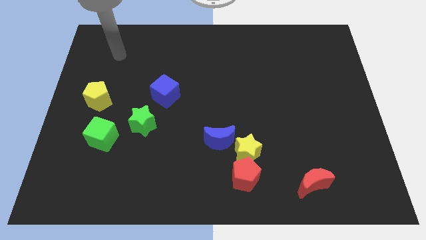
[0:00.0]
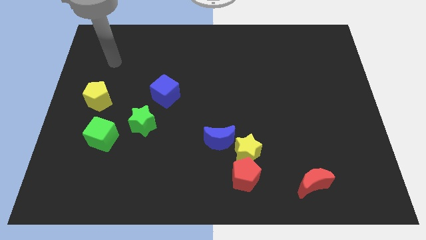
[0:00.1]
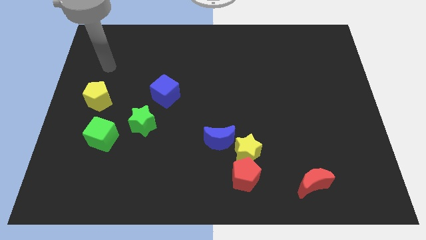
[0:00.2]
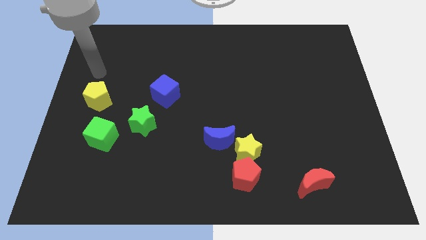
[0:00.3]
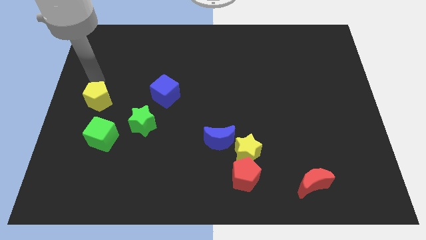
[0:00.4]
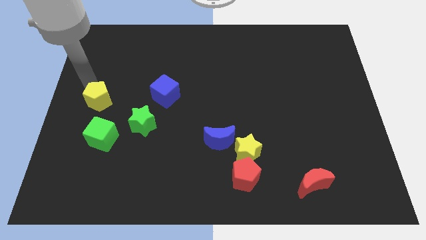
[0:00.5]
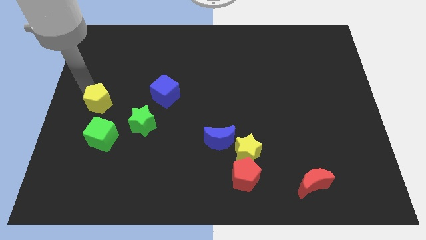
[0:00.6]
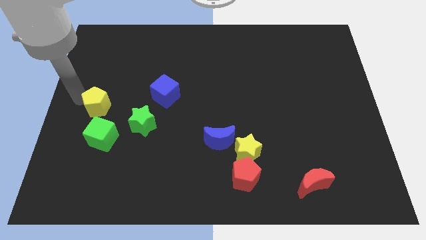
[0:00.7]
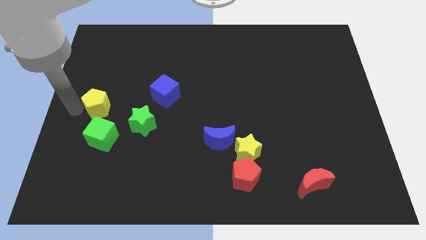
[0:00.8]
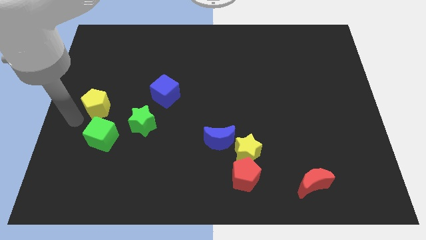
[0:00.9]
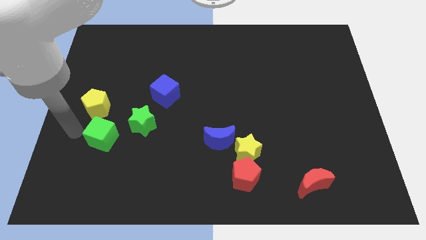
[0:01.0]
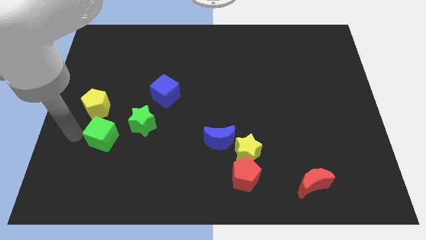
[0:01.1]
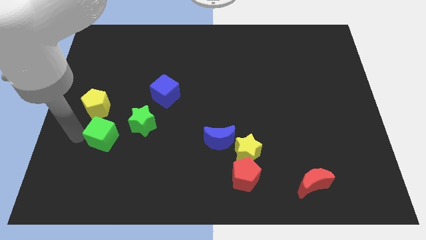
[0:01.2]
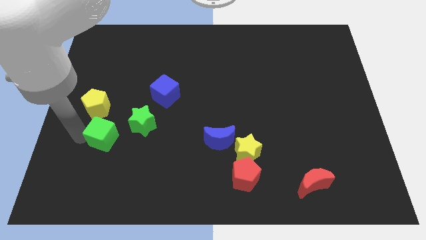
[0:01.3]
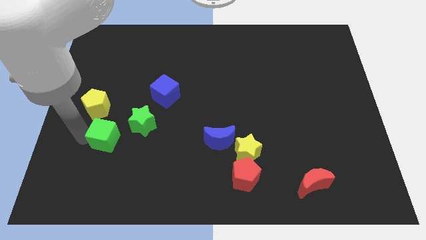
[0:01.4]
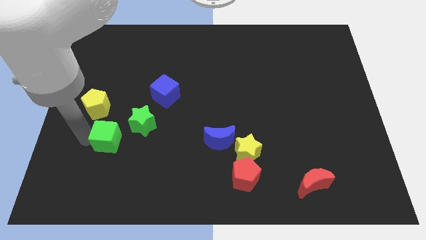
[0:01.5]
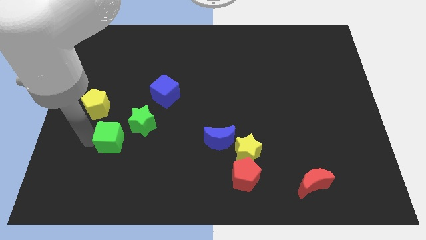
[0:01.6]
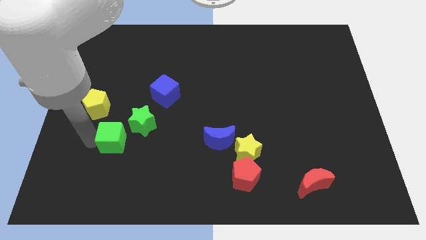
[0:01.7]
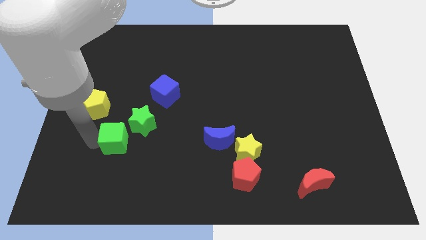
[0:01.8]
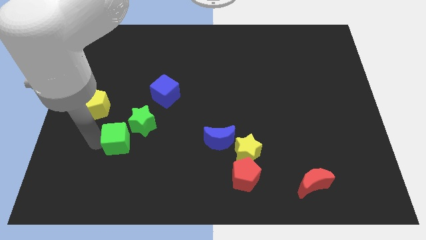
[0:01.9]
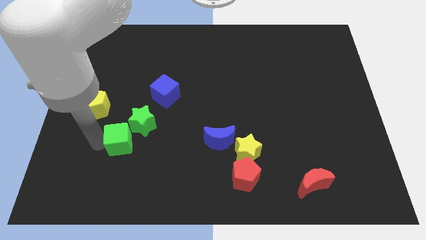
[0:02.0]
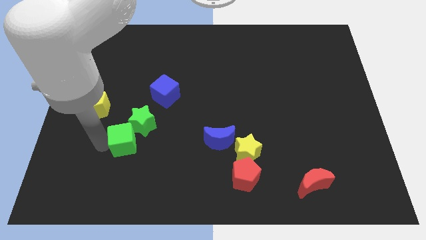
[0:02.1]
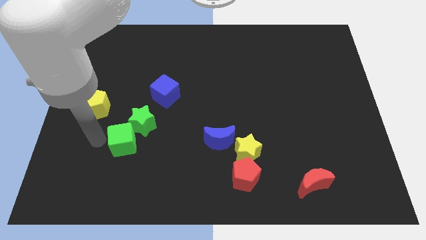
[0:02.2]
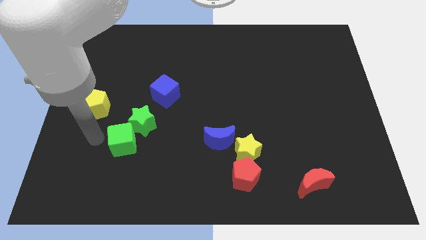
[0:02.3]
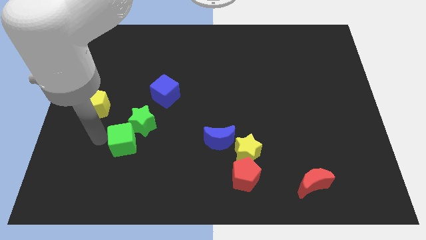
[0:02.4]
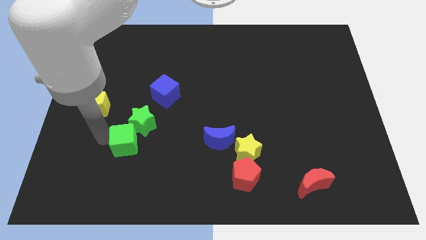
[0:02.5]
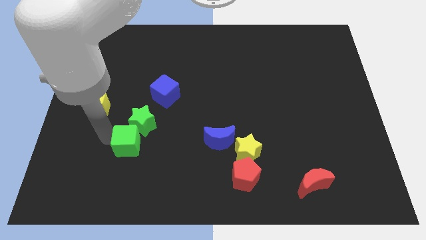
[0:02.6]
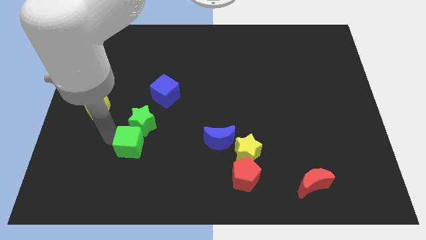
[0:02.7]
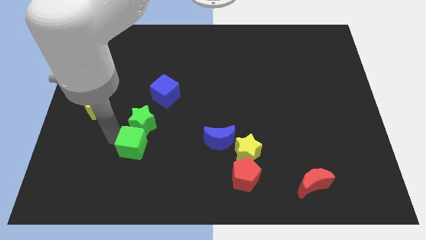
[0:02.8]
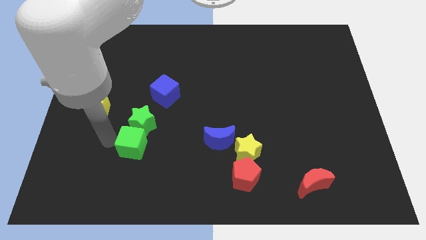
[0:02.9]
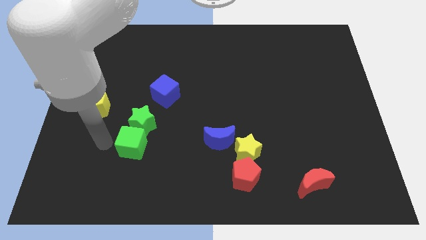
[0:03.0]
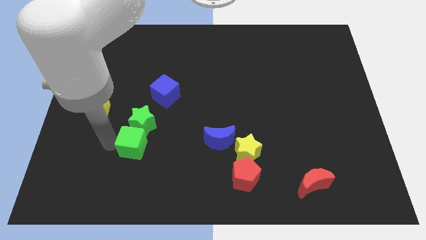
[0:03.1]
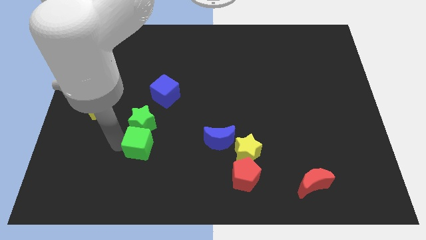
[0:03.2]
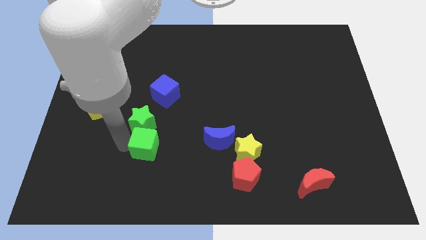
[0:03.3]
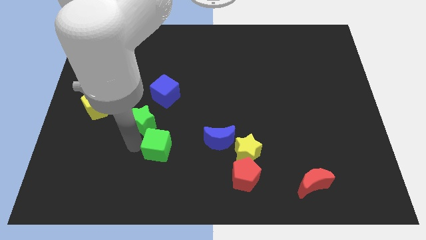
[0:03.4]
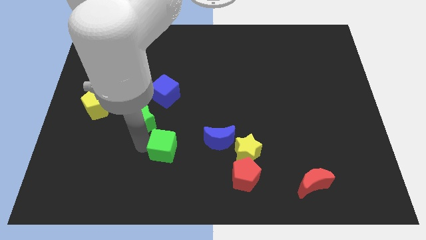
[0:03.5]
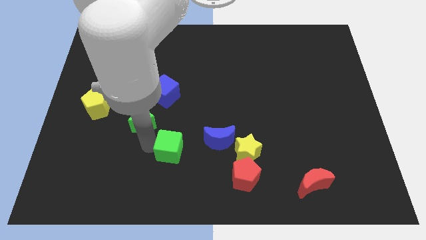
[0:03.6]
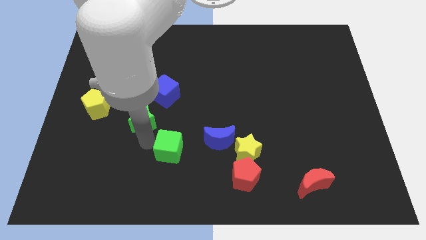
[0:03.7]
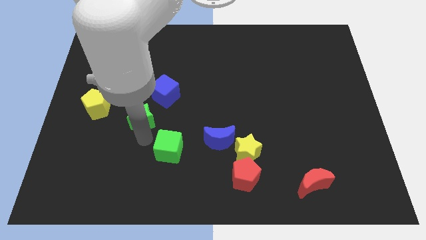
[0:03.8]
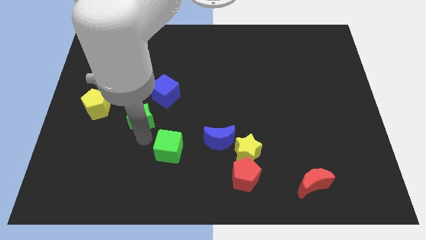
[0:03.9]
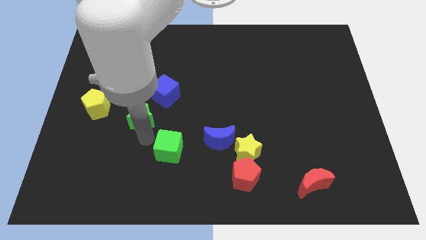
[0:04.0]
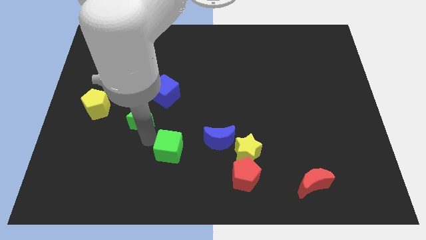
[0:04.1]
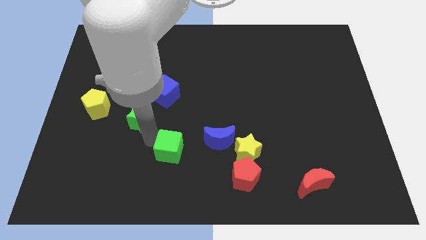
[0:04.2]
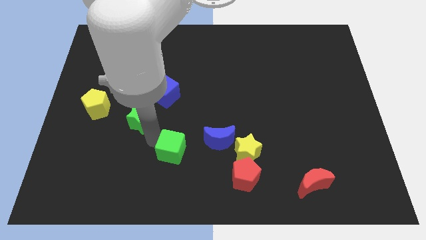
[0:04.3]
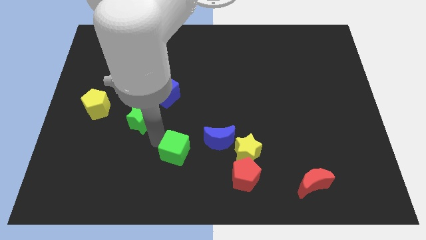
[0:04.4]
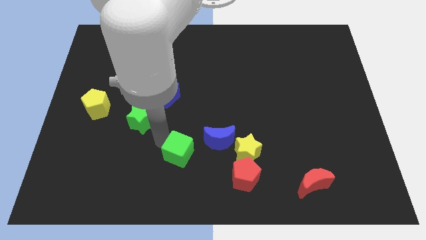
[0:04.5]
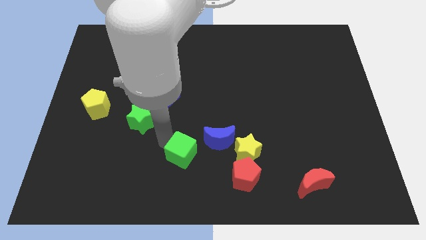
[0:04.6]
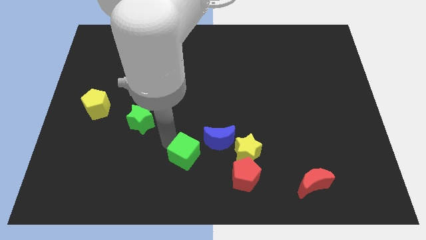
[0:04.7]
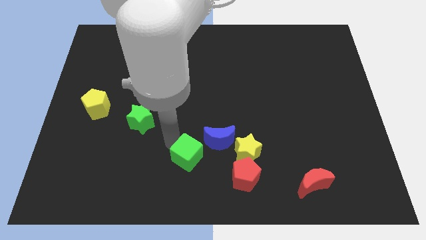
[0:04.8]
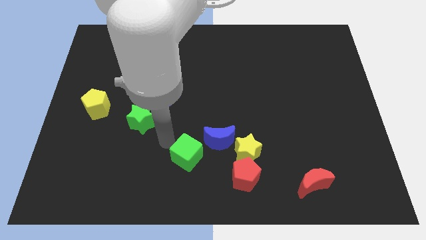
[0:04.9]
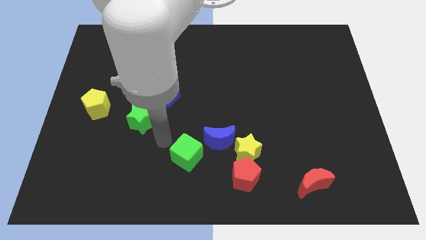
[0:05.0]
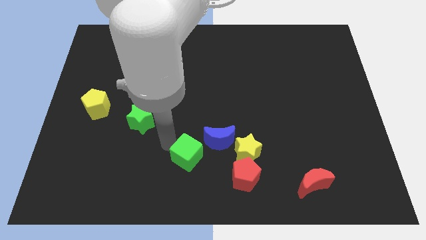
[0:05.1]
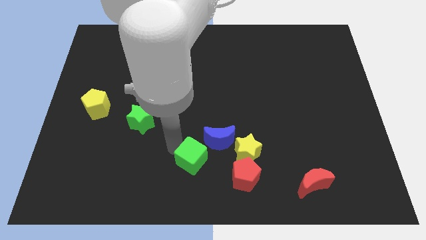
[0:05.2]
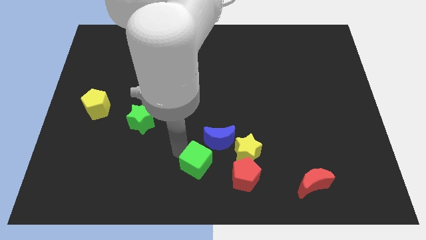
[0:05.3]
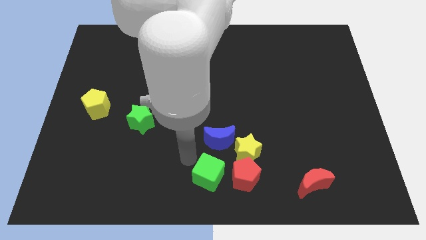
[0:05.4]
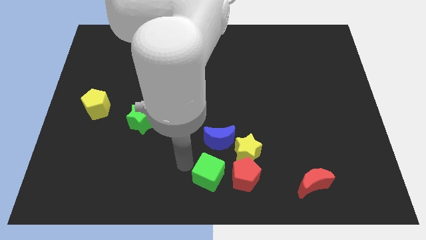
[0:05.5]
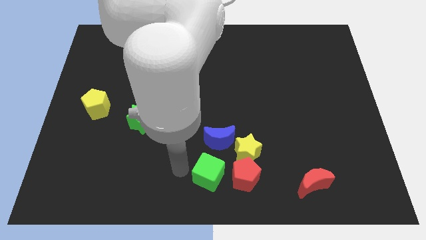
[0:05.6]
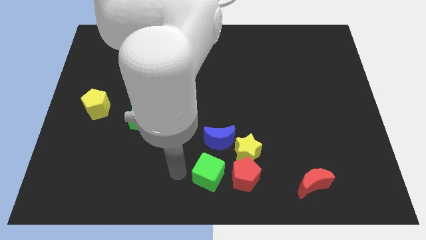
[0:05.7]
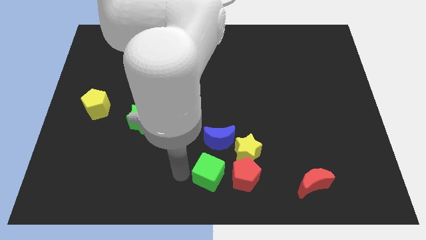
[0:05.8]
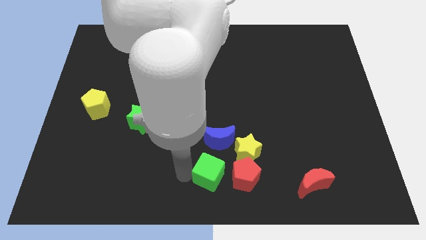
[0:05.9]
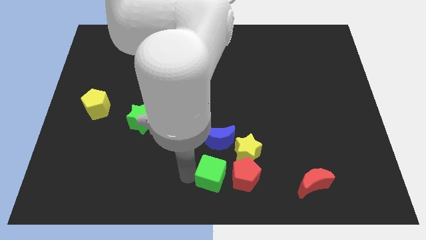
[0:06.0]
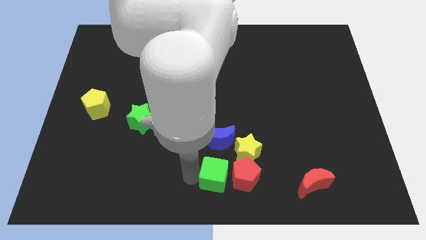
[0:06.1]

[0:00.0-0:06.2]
slide the green cube to the red pentagon

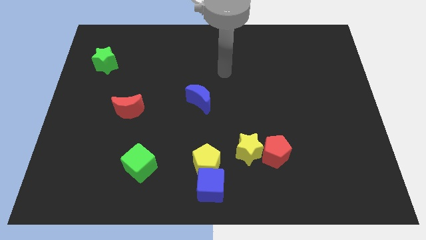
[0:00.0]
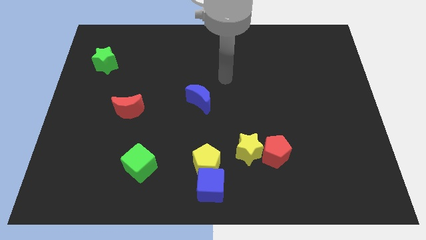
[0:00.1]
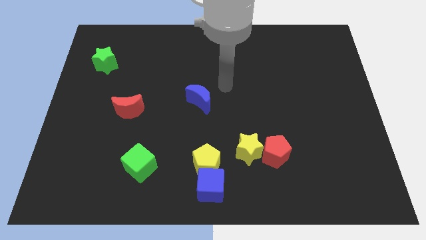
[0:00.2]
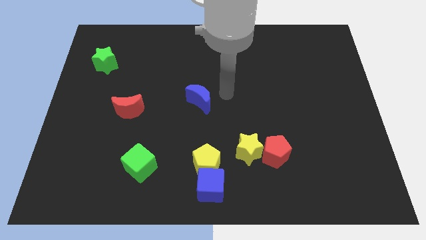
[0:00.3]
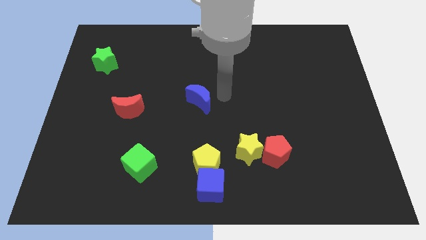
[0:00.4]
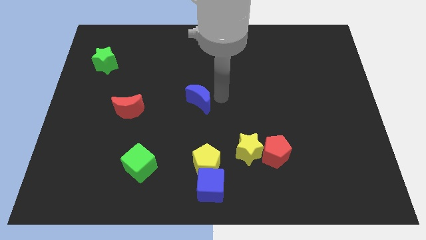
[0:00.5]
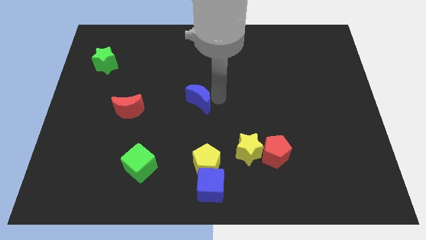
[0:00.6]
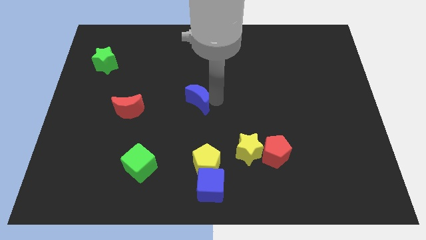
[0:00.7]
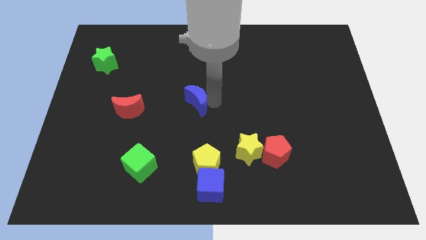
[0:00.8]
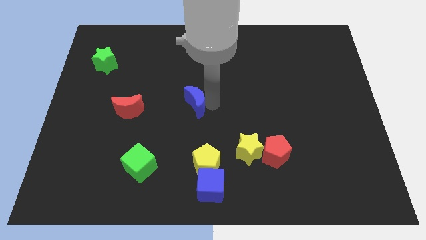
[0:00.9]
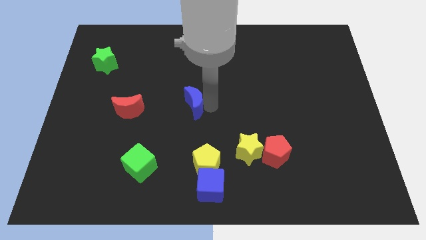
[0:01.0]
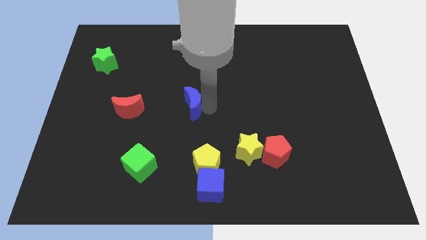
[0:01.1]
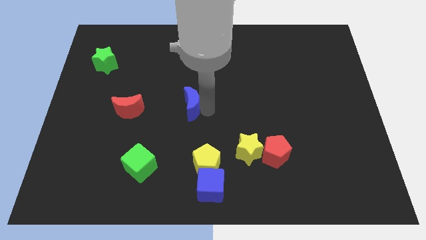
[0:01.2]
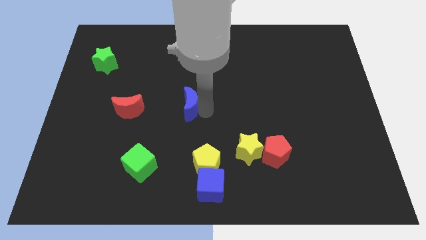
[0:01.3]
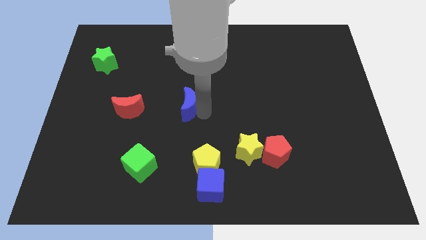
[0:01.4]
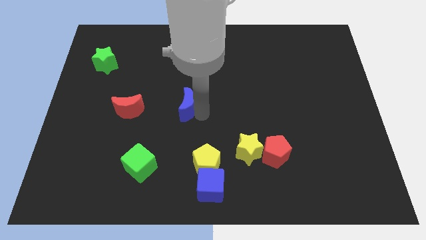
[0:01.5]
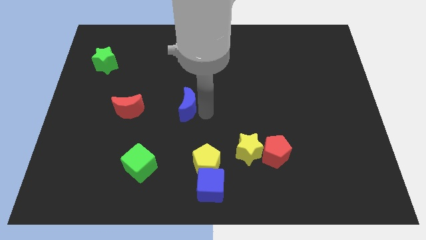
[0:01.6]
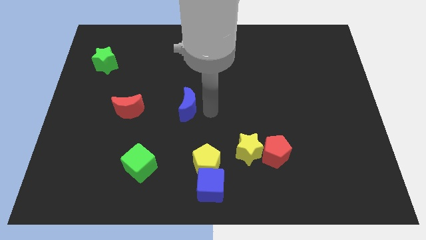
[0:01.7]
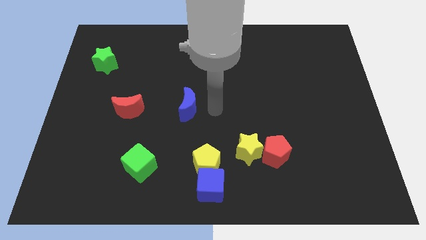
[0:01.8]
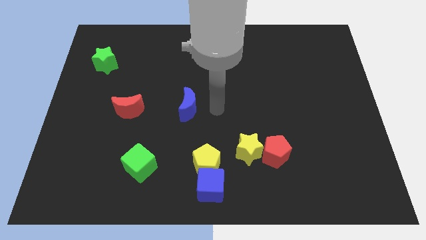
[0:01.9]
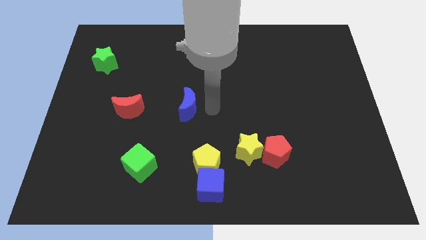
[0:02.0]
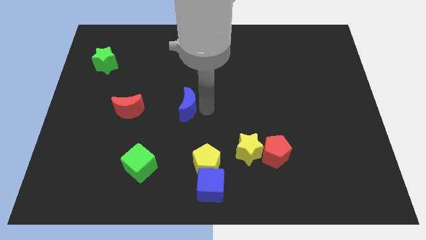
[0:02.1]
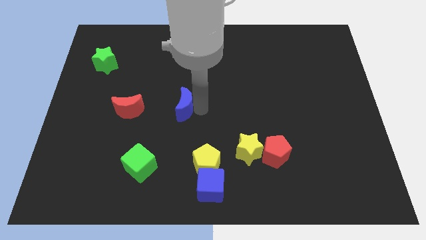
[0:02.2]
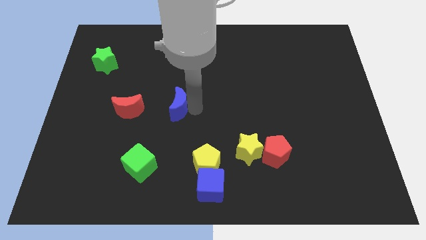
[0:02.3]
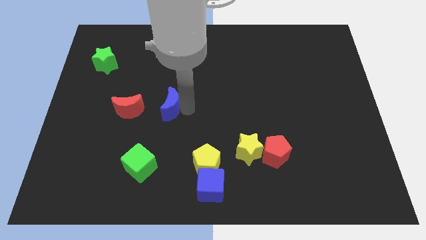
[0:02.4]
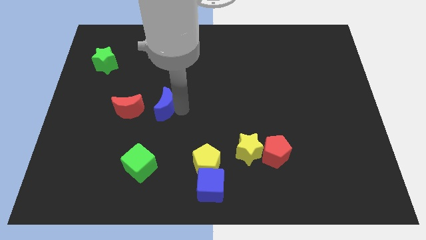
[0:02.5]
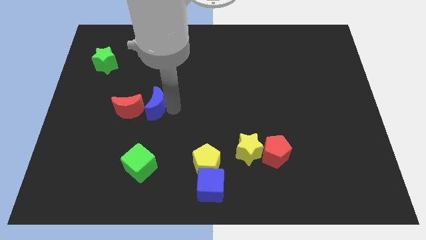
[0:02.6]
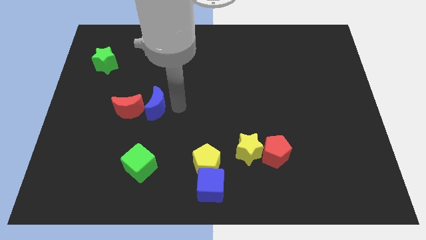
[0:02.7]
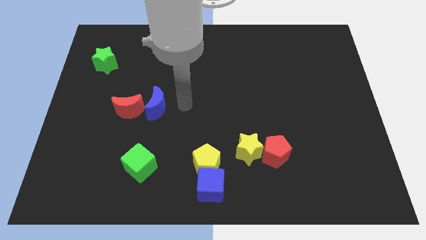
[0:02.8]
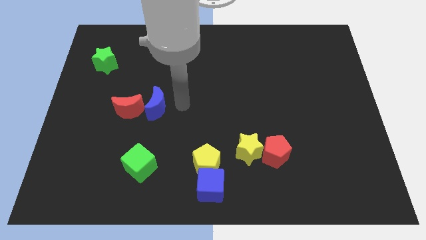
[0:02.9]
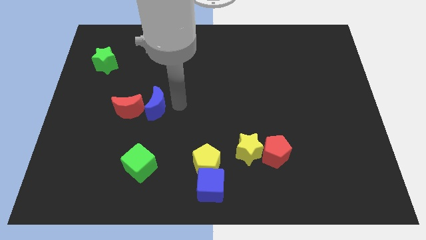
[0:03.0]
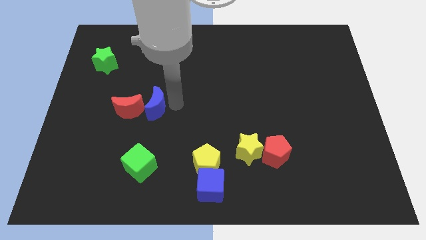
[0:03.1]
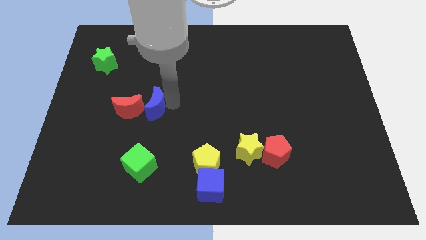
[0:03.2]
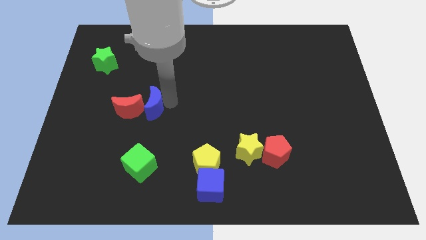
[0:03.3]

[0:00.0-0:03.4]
move the blue moon next to the red moon
